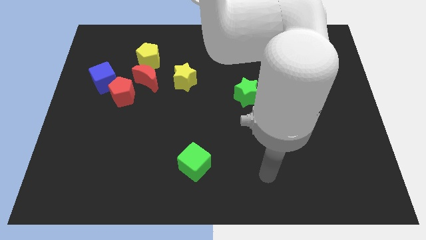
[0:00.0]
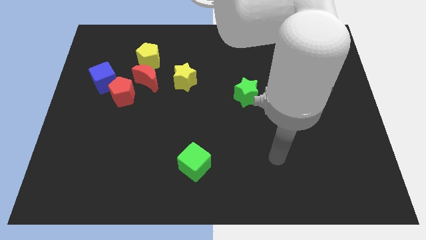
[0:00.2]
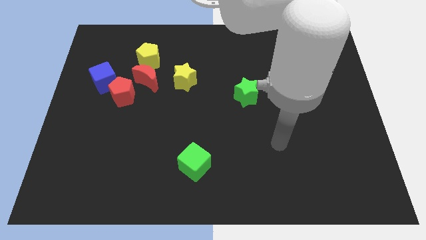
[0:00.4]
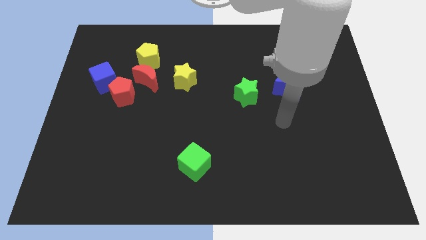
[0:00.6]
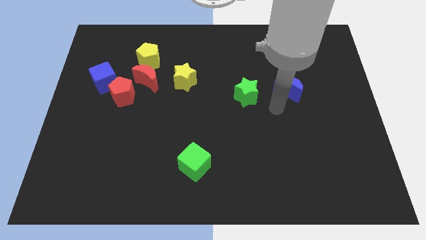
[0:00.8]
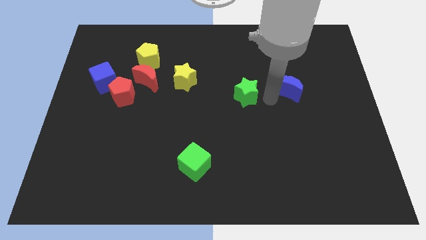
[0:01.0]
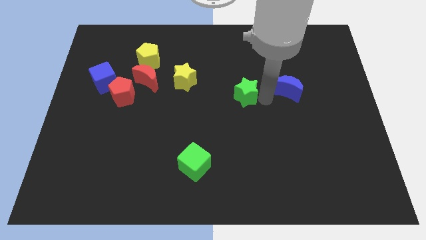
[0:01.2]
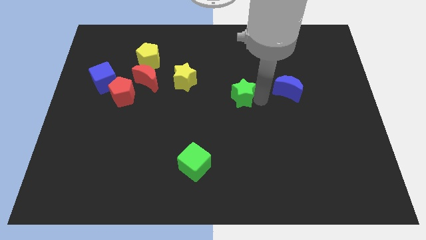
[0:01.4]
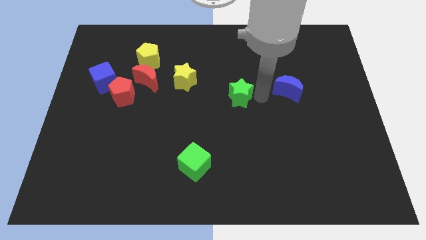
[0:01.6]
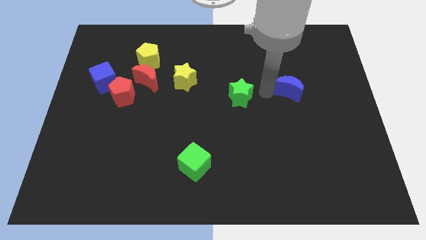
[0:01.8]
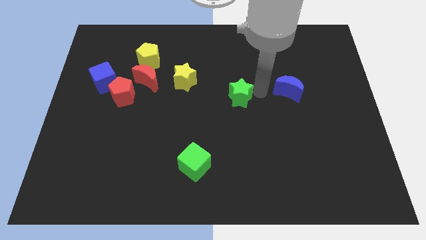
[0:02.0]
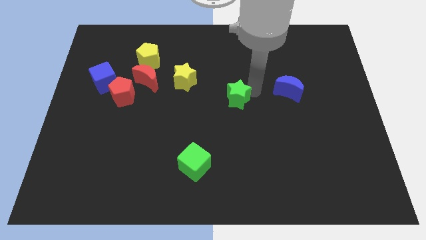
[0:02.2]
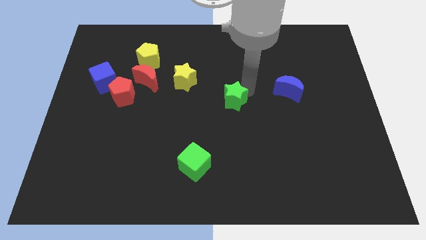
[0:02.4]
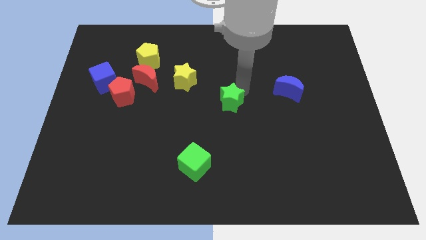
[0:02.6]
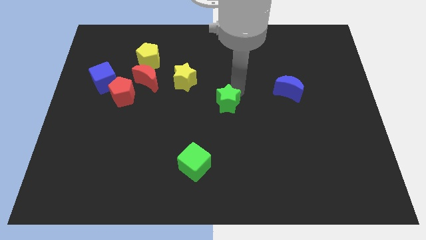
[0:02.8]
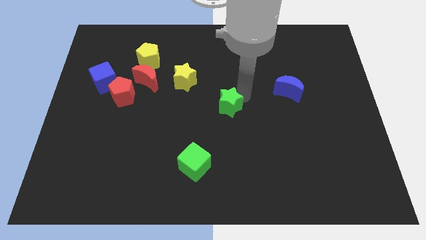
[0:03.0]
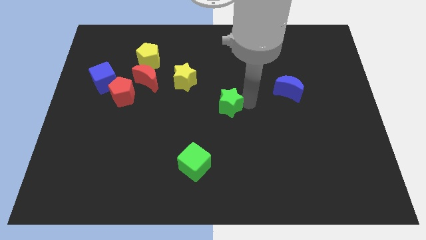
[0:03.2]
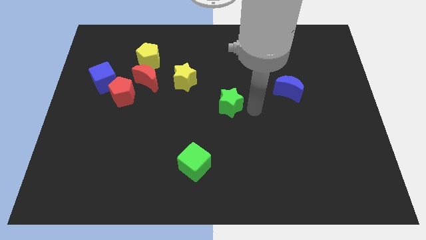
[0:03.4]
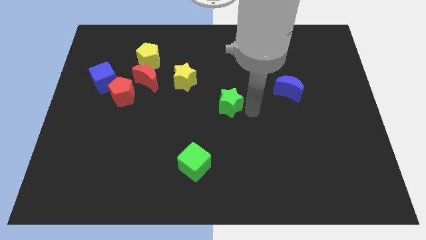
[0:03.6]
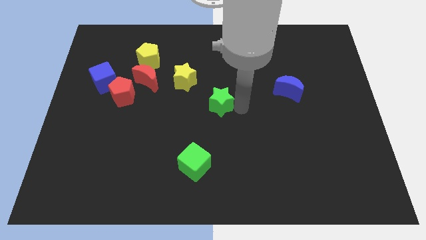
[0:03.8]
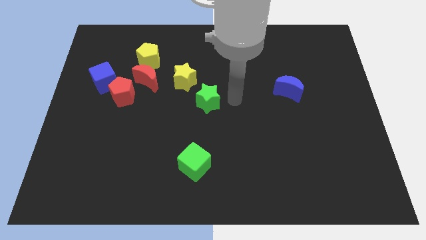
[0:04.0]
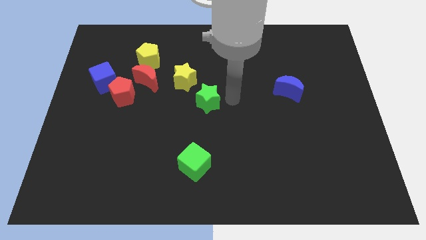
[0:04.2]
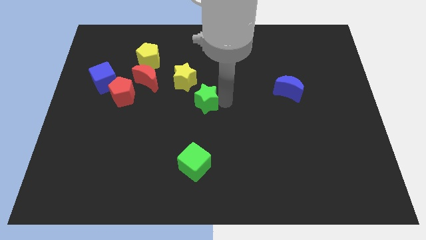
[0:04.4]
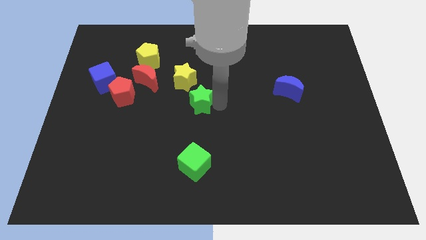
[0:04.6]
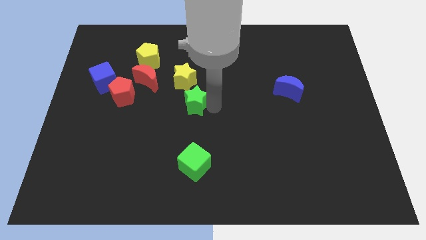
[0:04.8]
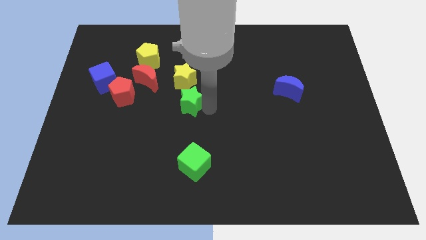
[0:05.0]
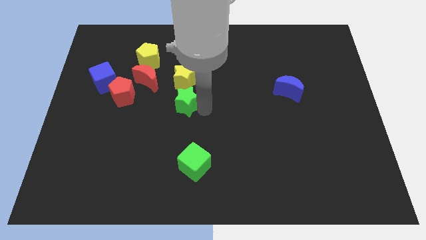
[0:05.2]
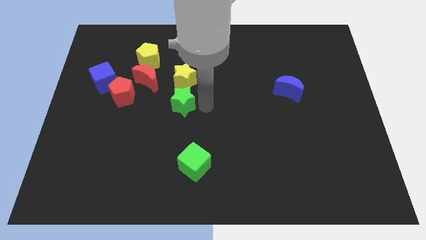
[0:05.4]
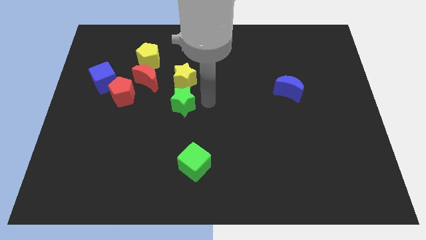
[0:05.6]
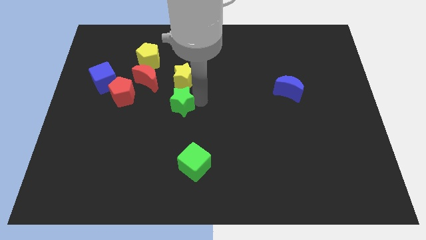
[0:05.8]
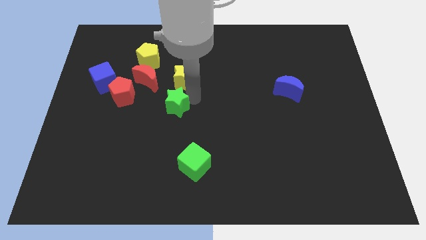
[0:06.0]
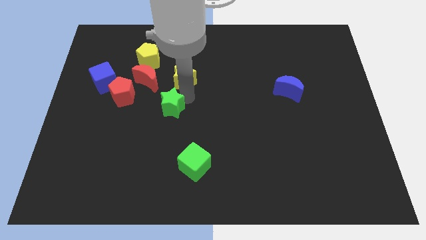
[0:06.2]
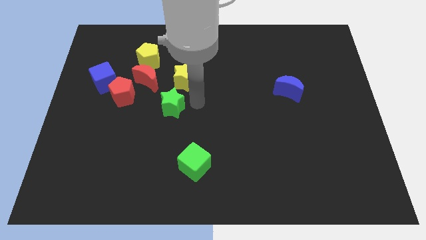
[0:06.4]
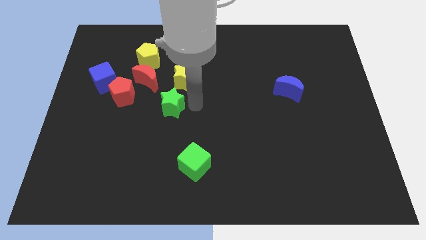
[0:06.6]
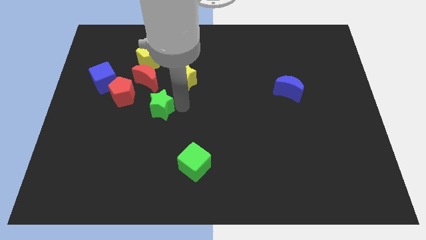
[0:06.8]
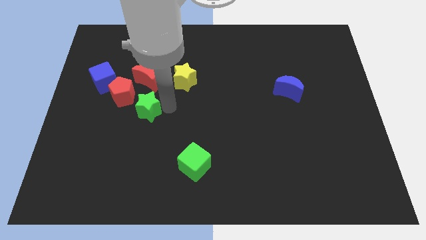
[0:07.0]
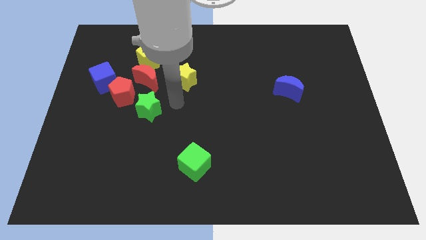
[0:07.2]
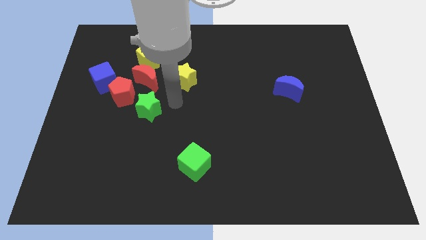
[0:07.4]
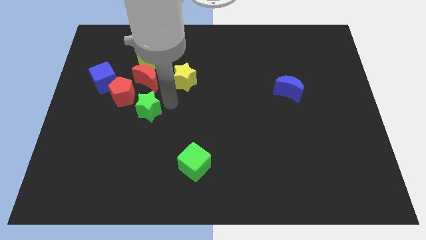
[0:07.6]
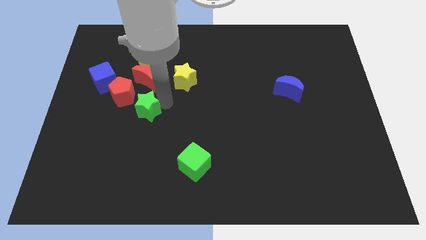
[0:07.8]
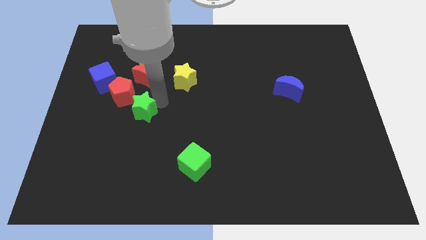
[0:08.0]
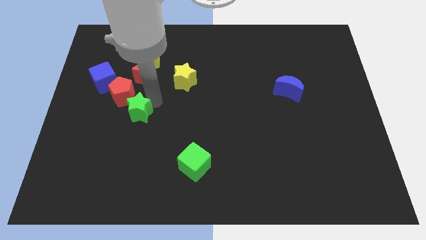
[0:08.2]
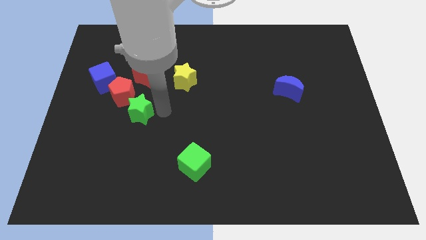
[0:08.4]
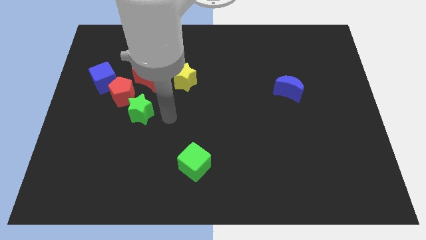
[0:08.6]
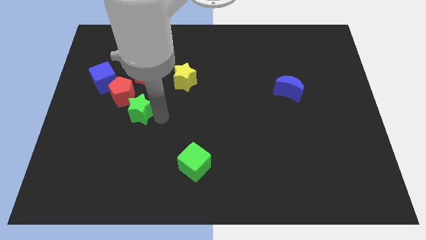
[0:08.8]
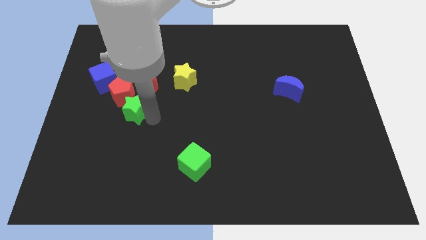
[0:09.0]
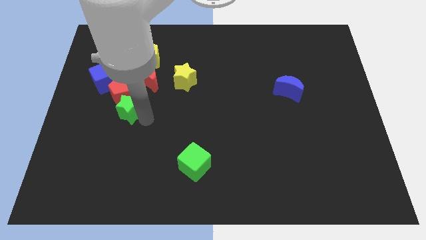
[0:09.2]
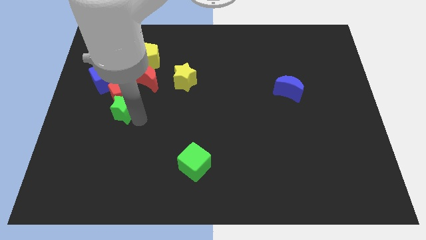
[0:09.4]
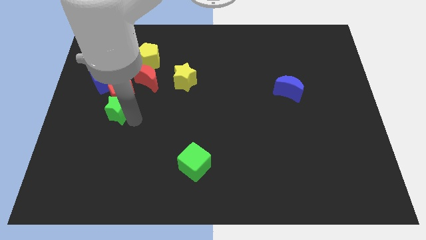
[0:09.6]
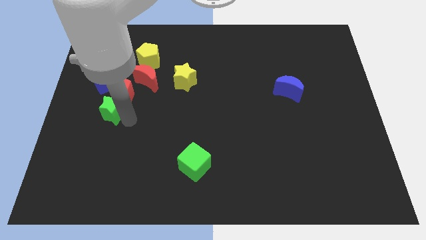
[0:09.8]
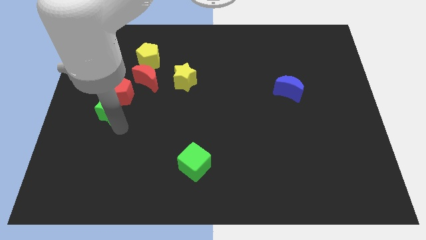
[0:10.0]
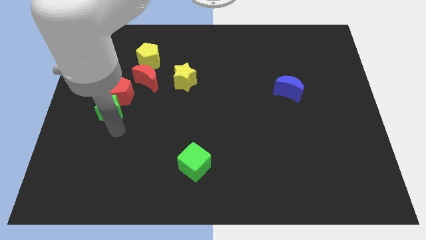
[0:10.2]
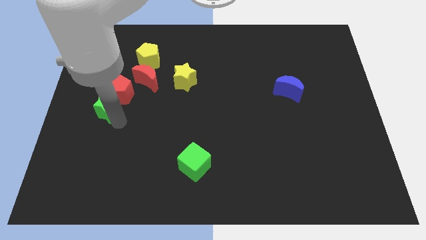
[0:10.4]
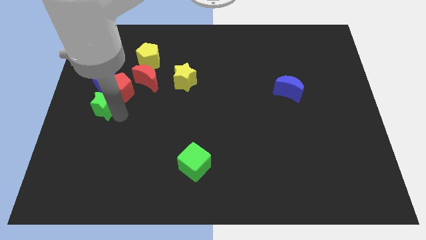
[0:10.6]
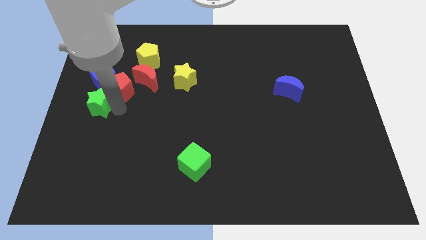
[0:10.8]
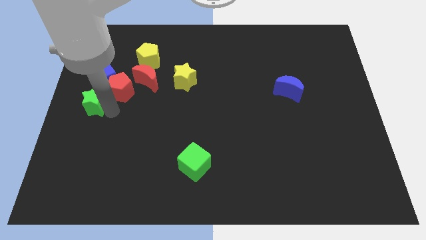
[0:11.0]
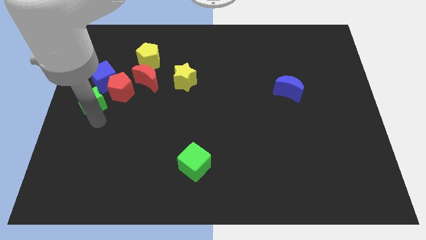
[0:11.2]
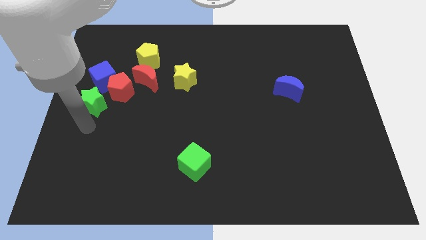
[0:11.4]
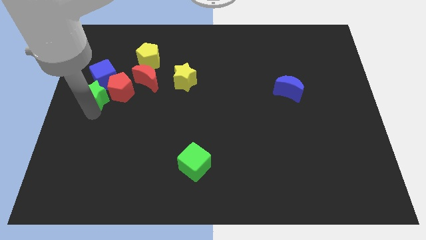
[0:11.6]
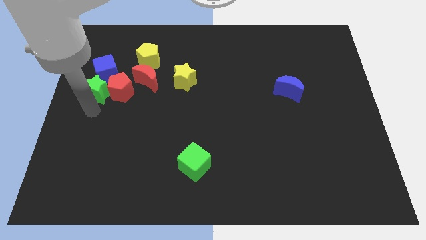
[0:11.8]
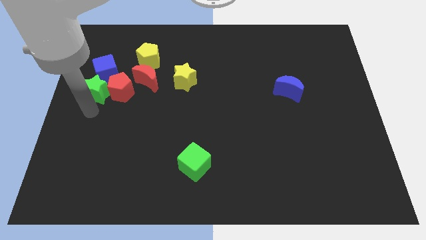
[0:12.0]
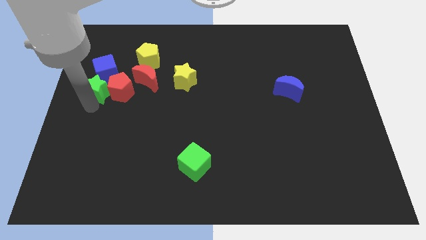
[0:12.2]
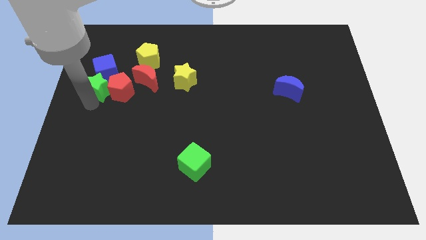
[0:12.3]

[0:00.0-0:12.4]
put the green star close to the blue cube
